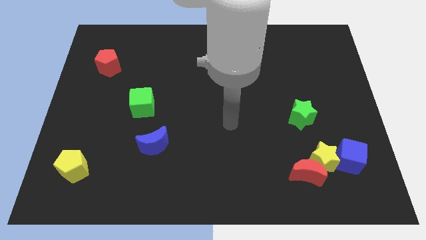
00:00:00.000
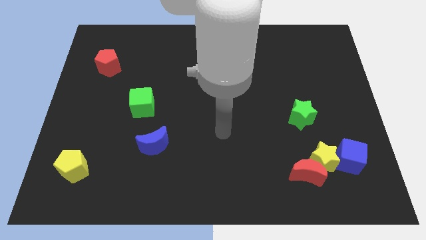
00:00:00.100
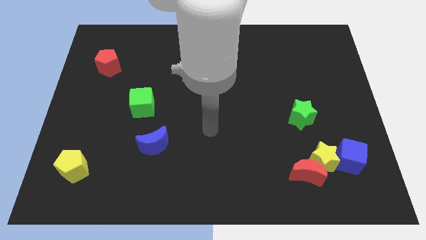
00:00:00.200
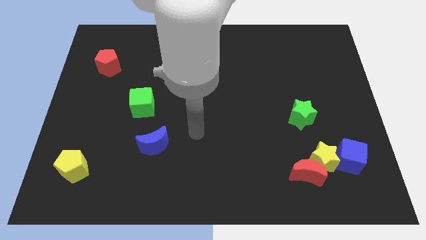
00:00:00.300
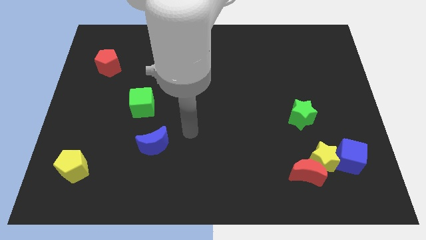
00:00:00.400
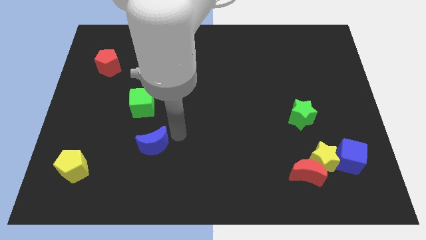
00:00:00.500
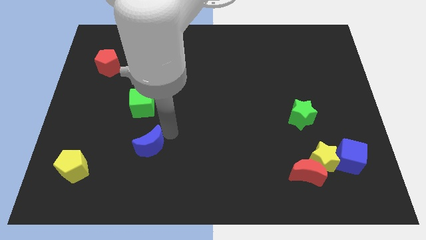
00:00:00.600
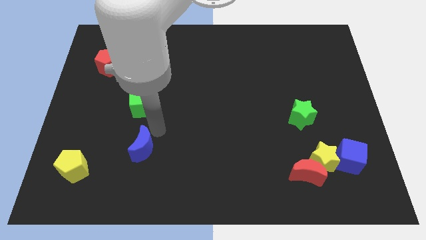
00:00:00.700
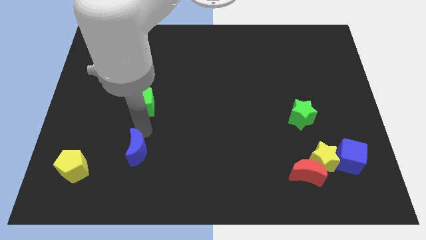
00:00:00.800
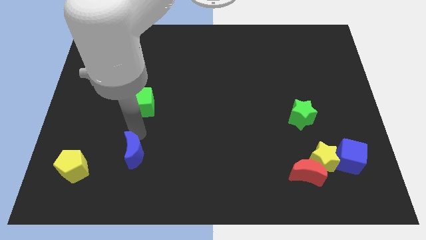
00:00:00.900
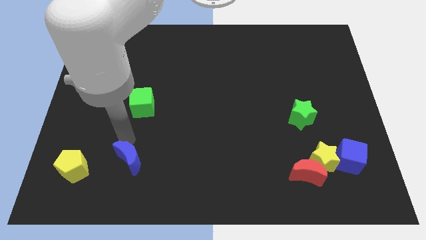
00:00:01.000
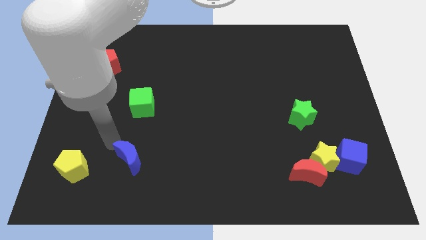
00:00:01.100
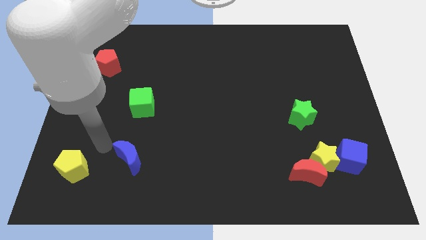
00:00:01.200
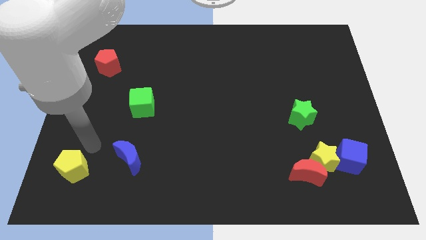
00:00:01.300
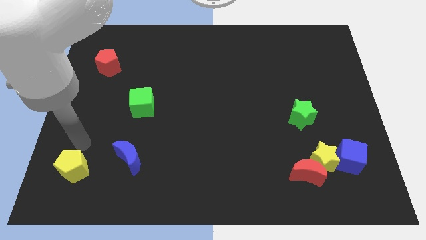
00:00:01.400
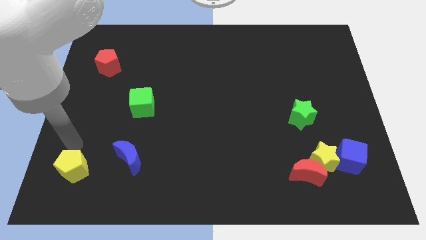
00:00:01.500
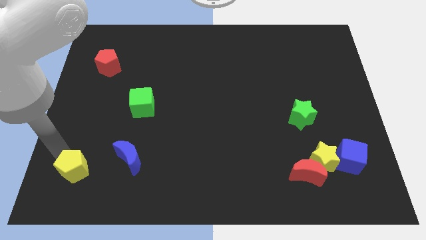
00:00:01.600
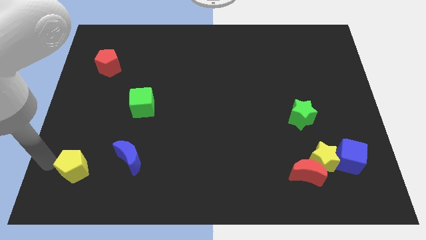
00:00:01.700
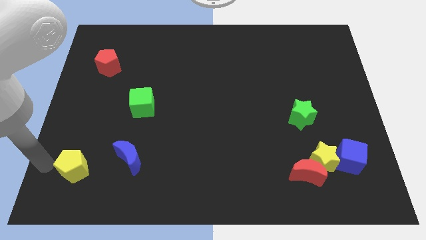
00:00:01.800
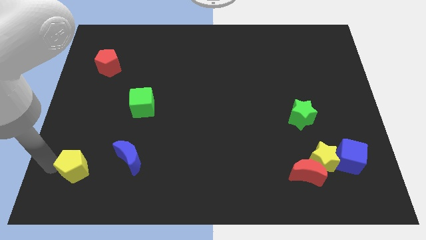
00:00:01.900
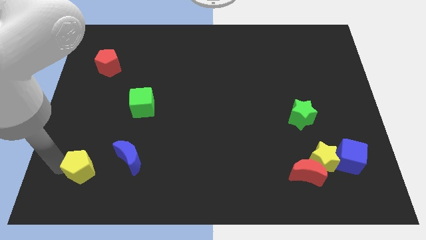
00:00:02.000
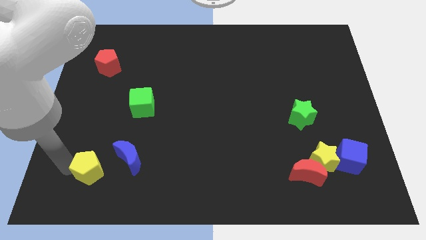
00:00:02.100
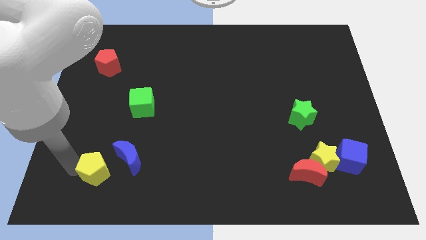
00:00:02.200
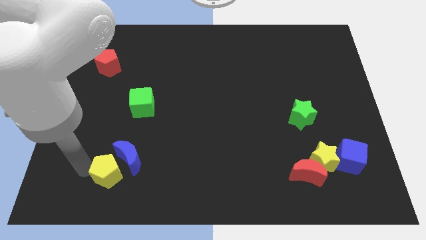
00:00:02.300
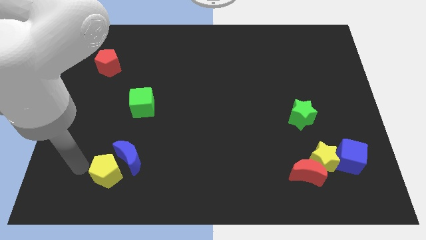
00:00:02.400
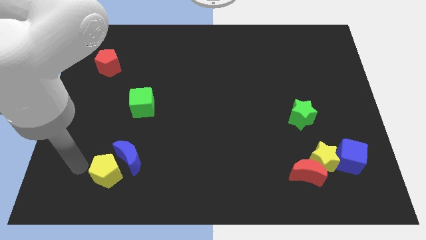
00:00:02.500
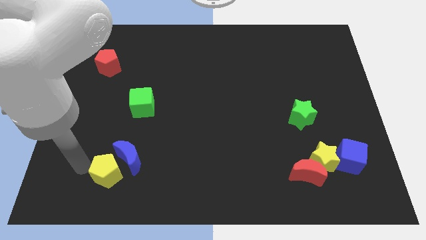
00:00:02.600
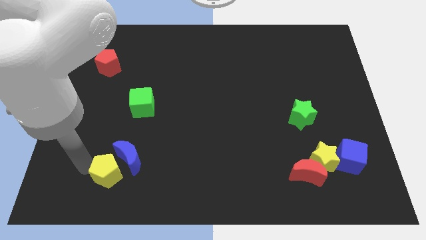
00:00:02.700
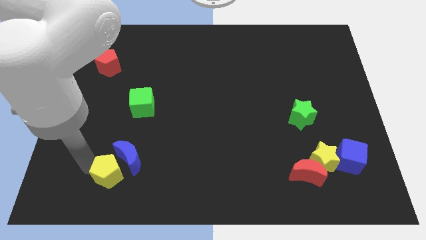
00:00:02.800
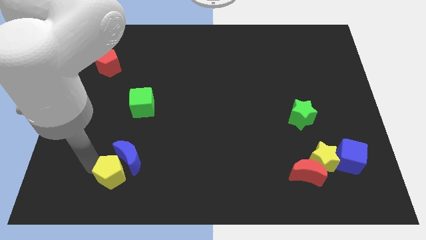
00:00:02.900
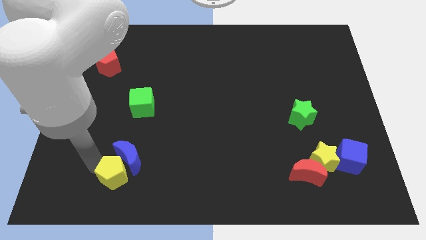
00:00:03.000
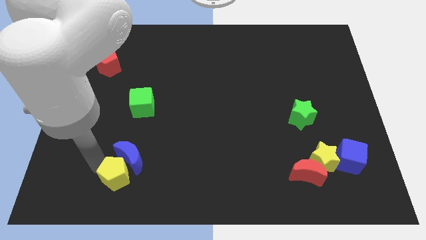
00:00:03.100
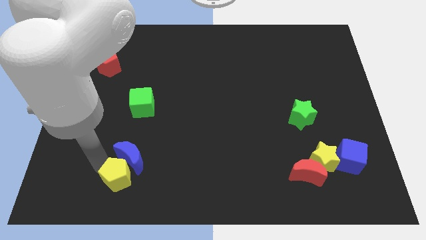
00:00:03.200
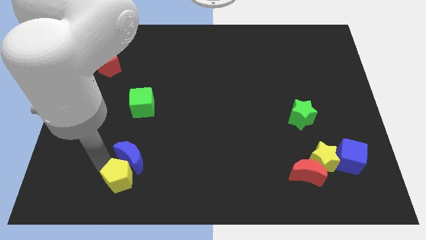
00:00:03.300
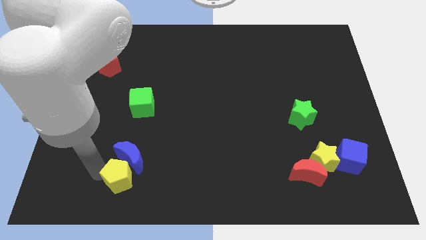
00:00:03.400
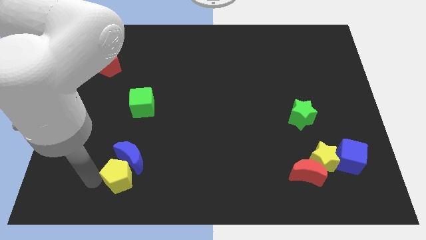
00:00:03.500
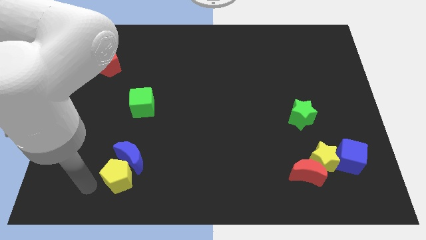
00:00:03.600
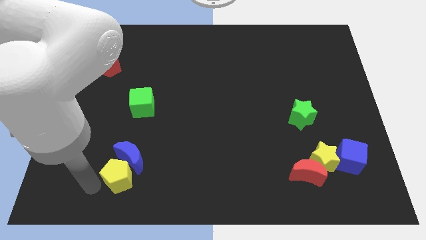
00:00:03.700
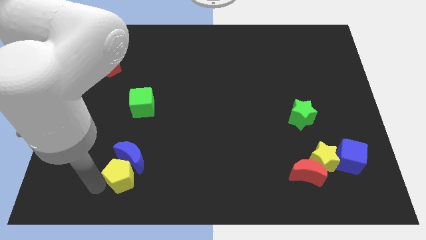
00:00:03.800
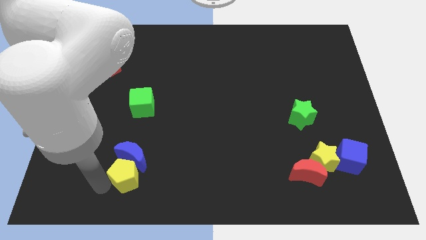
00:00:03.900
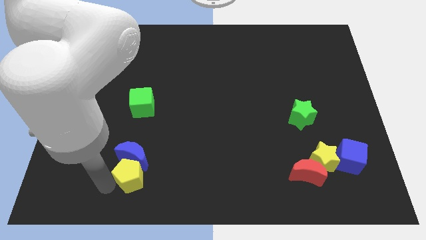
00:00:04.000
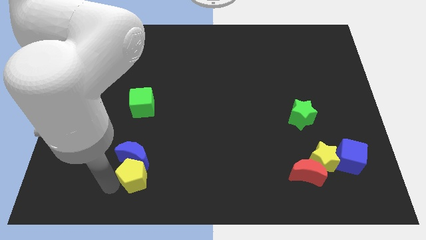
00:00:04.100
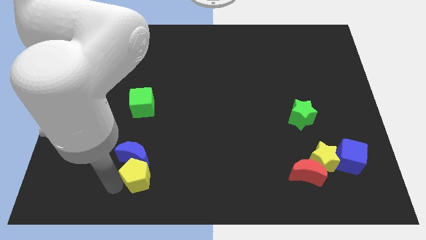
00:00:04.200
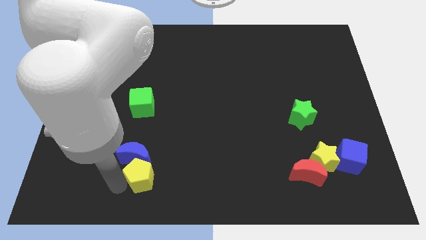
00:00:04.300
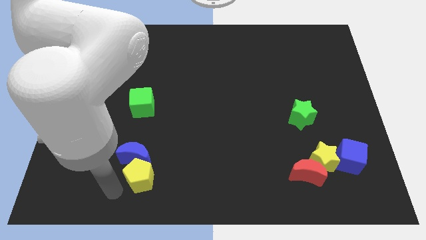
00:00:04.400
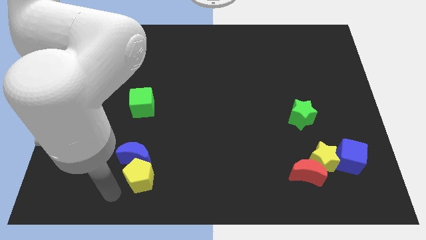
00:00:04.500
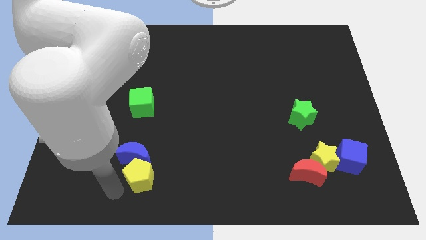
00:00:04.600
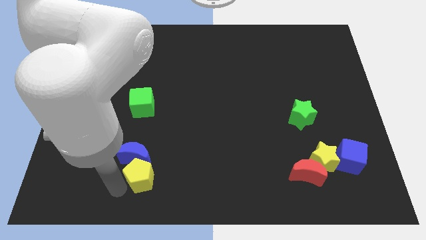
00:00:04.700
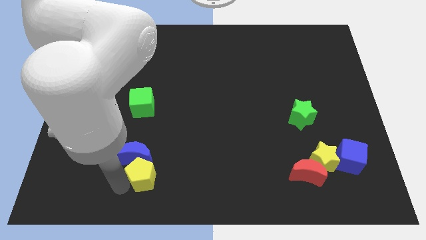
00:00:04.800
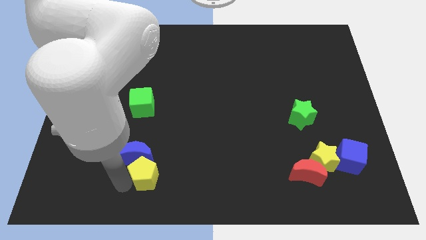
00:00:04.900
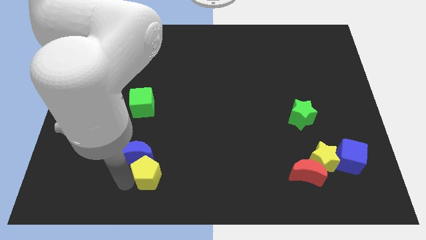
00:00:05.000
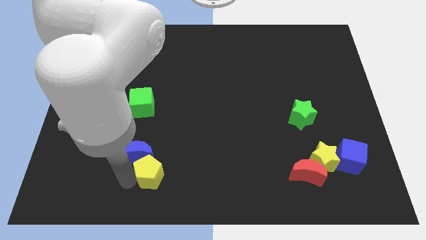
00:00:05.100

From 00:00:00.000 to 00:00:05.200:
move the yellow pentagon to the right of the blue moon

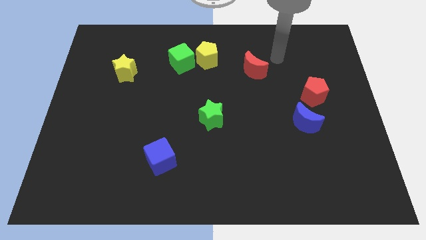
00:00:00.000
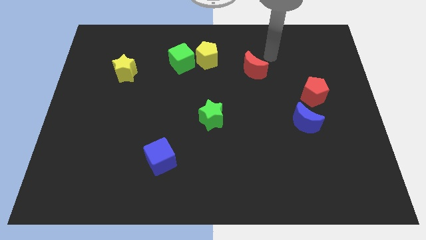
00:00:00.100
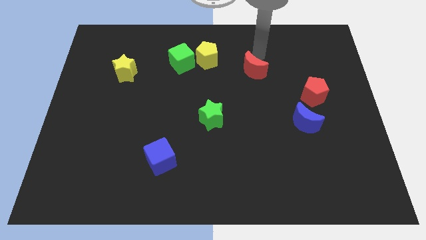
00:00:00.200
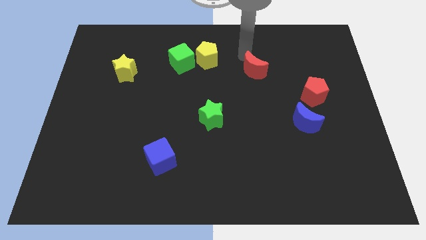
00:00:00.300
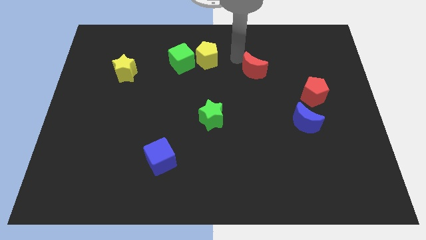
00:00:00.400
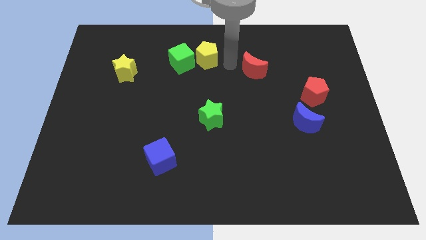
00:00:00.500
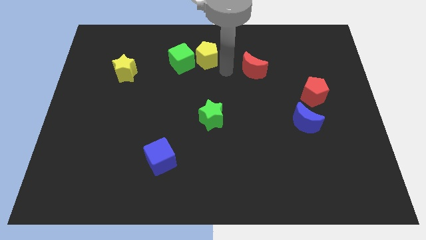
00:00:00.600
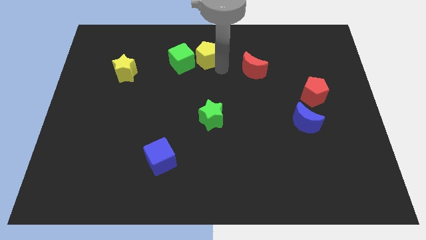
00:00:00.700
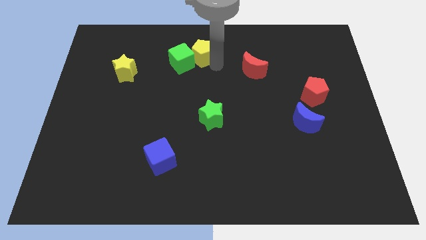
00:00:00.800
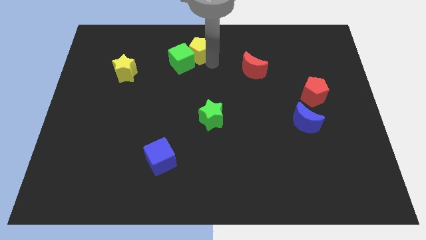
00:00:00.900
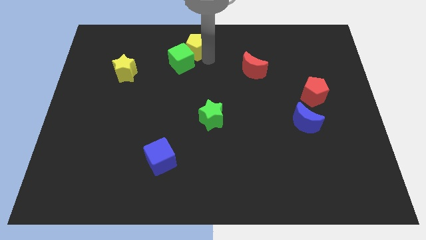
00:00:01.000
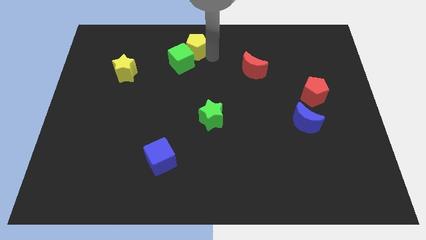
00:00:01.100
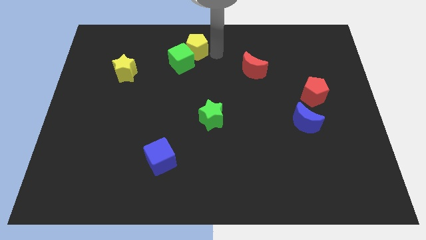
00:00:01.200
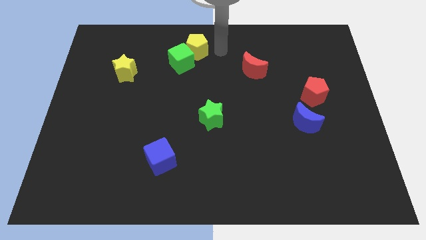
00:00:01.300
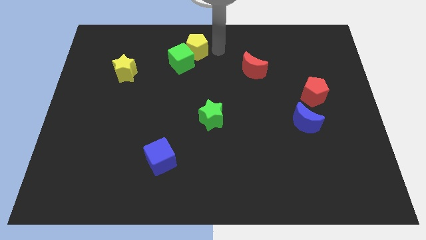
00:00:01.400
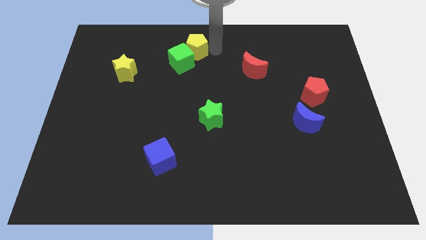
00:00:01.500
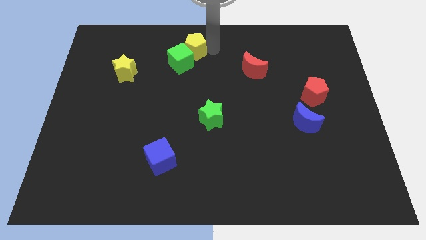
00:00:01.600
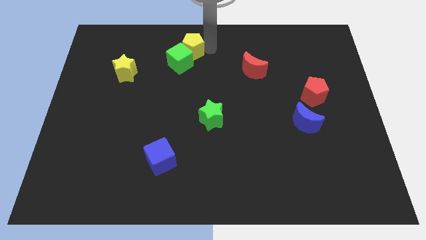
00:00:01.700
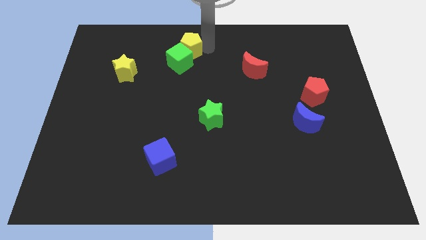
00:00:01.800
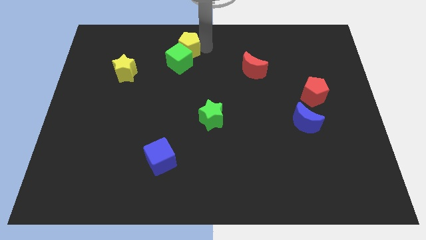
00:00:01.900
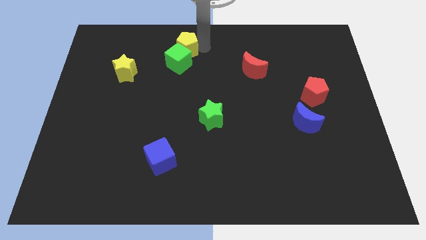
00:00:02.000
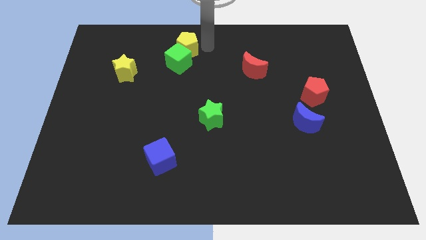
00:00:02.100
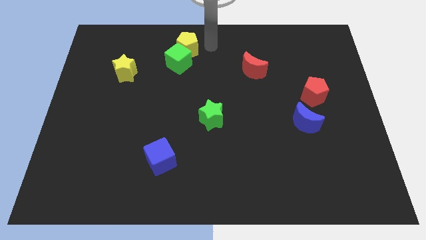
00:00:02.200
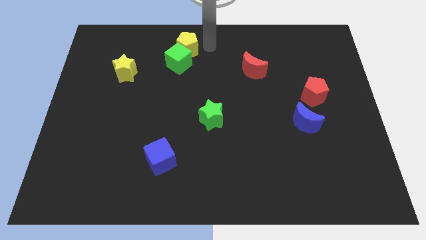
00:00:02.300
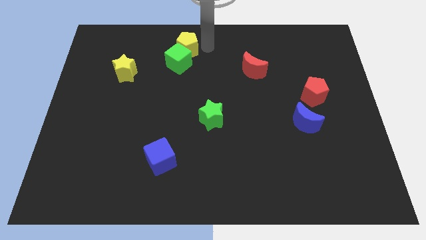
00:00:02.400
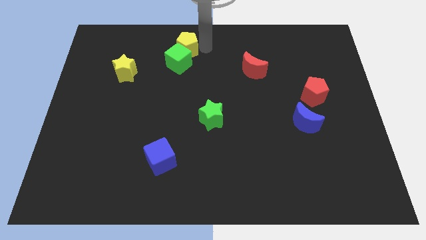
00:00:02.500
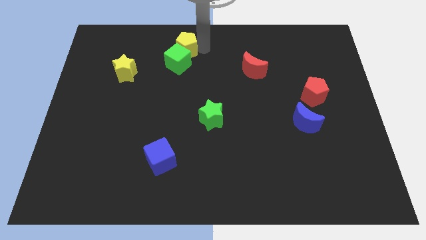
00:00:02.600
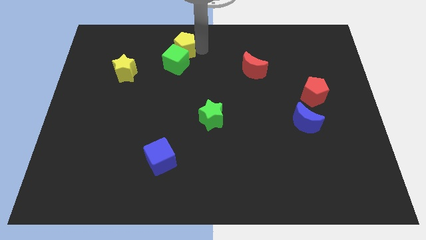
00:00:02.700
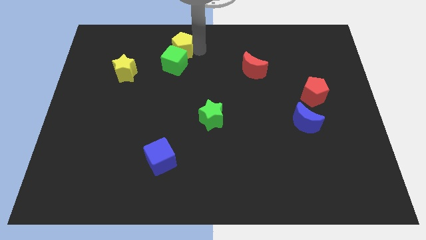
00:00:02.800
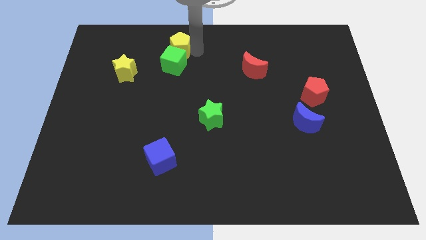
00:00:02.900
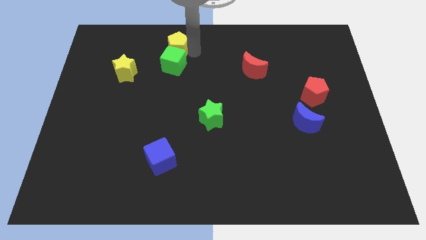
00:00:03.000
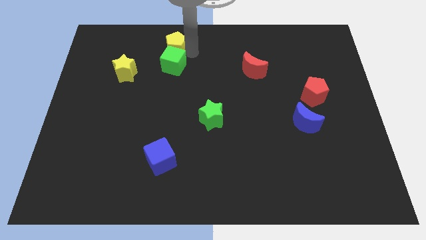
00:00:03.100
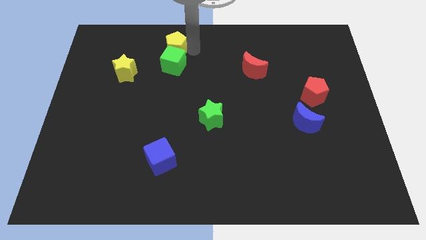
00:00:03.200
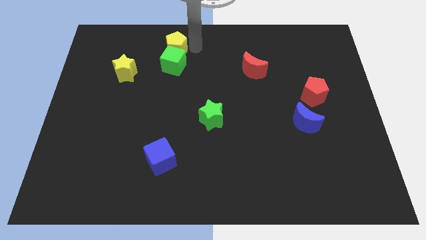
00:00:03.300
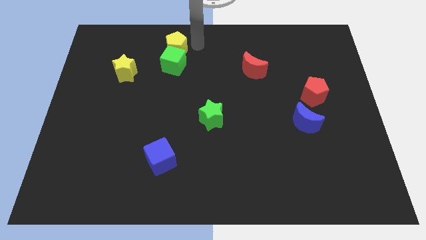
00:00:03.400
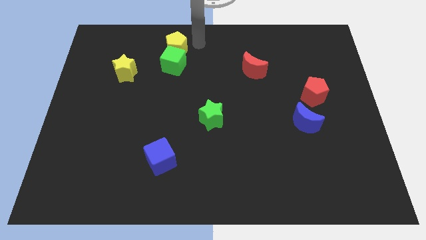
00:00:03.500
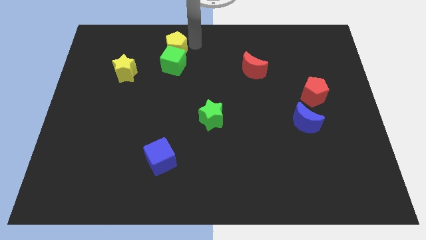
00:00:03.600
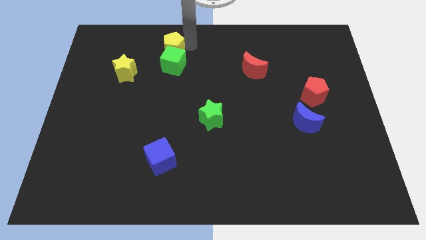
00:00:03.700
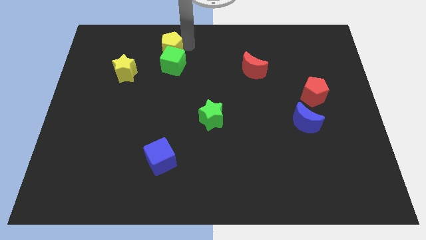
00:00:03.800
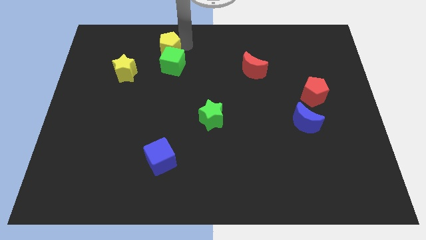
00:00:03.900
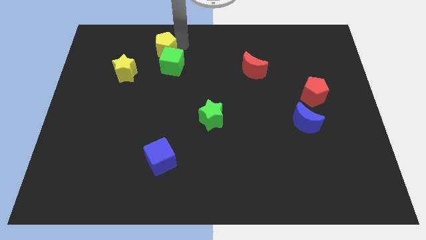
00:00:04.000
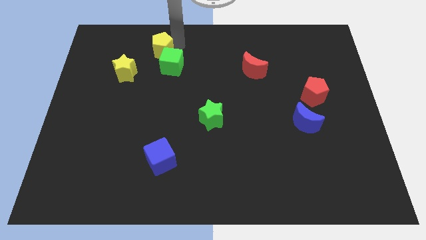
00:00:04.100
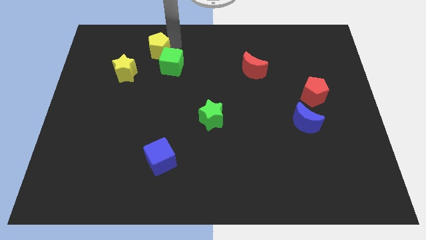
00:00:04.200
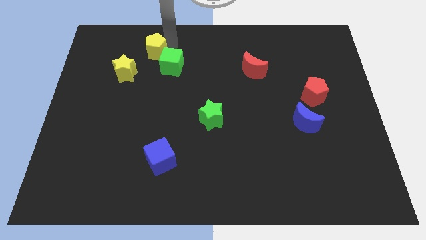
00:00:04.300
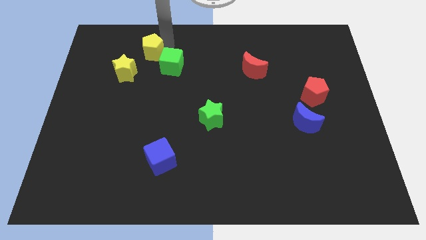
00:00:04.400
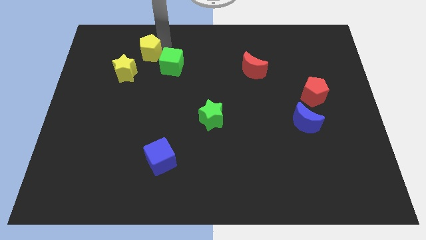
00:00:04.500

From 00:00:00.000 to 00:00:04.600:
slide the yellow pentagon to the left of the green cube
